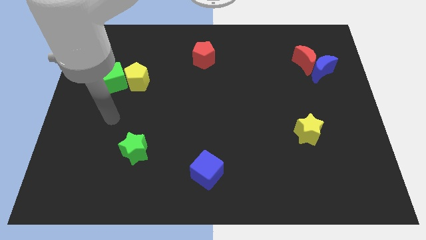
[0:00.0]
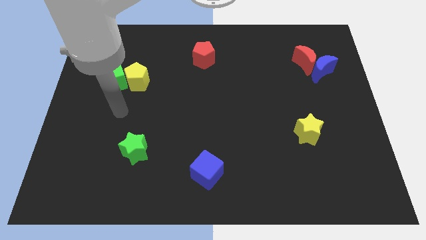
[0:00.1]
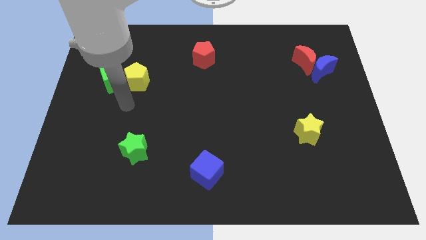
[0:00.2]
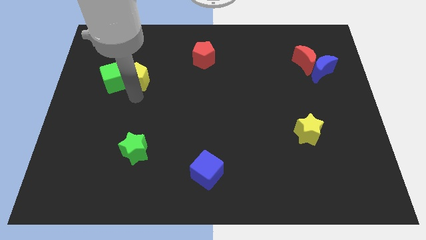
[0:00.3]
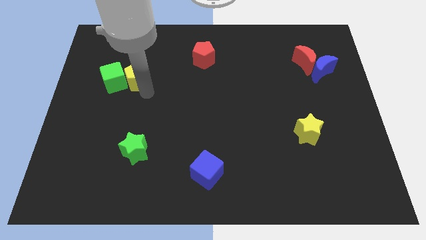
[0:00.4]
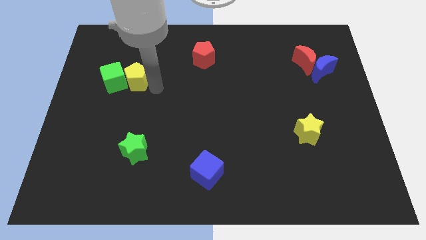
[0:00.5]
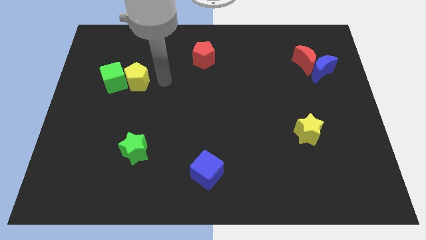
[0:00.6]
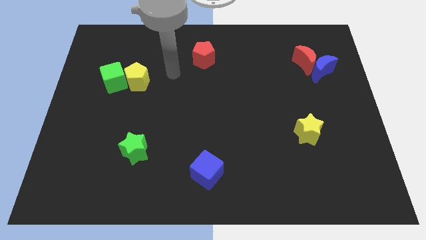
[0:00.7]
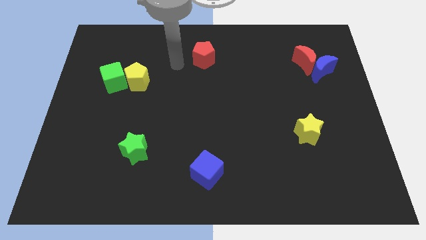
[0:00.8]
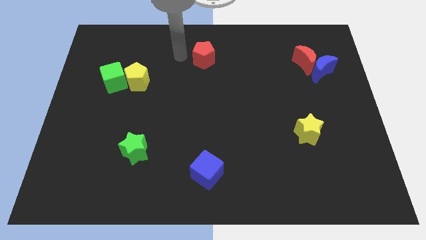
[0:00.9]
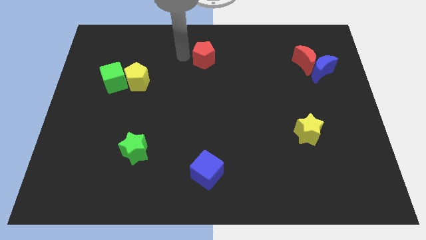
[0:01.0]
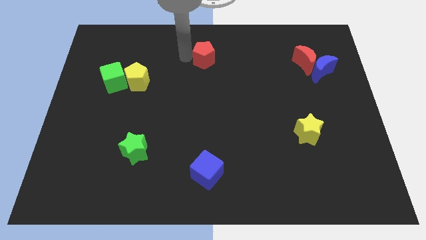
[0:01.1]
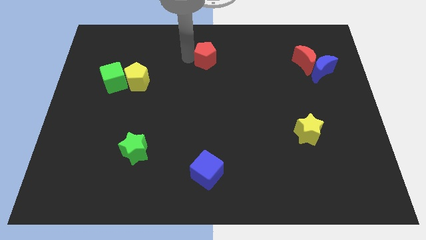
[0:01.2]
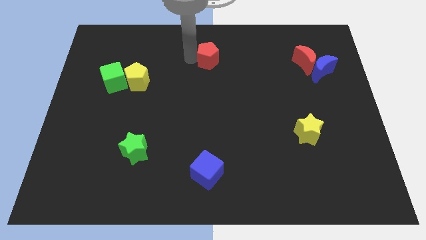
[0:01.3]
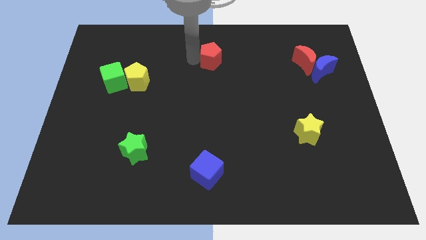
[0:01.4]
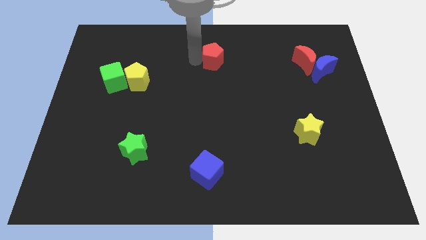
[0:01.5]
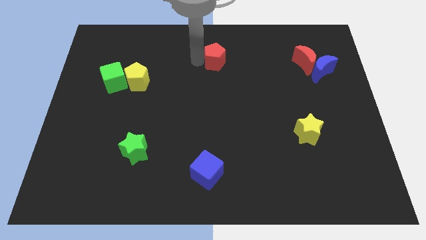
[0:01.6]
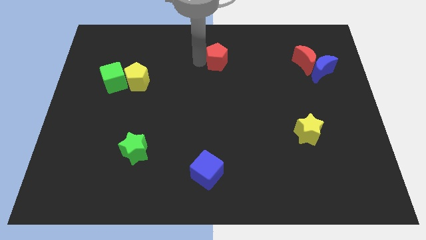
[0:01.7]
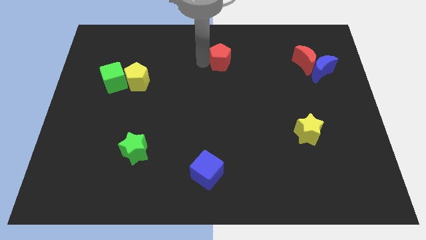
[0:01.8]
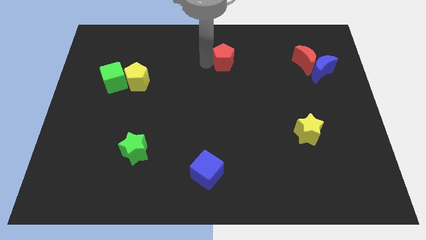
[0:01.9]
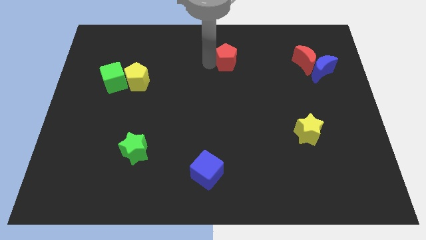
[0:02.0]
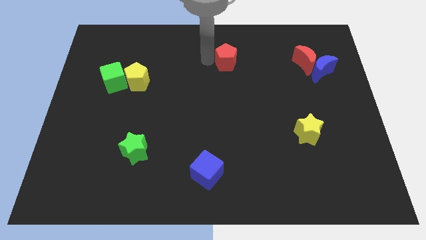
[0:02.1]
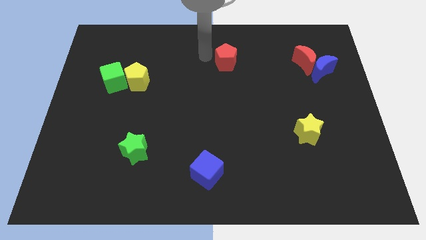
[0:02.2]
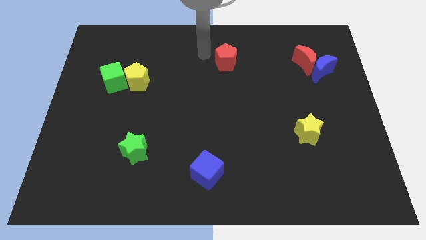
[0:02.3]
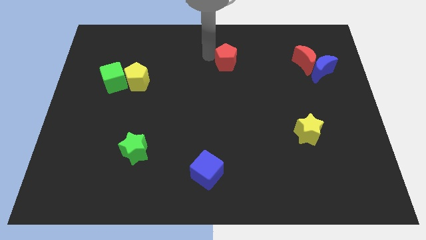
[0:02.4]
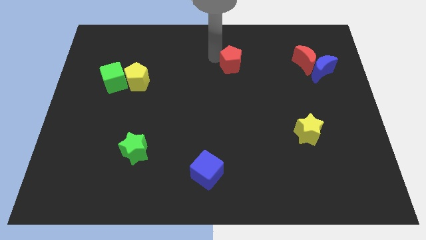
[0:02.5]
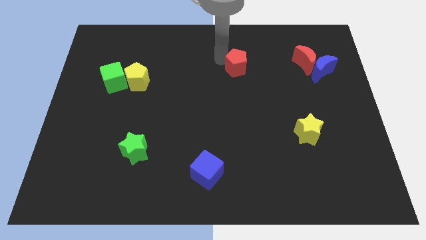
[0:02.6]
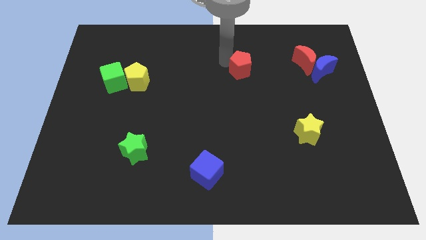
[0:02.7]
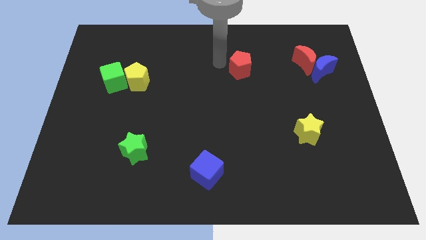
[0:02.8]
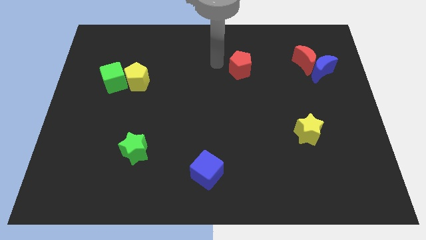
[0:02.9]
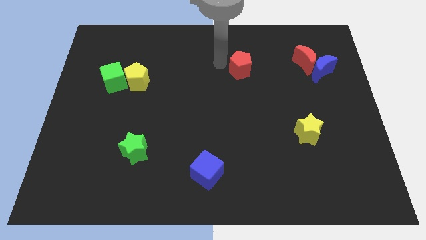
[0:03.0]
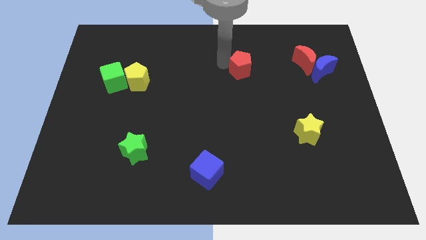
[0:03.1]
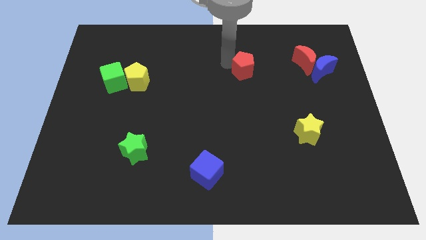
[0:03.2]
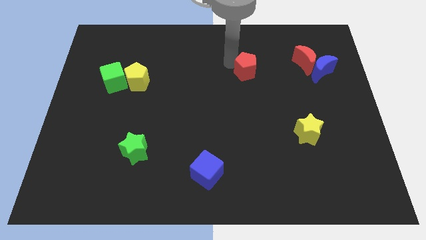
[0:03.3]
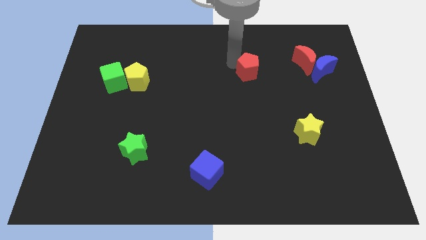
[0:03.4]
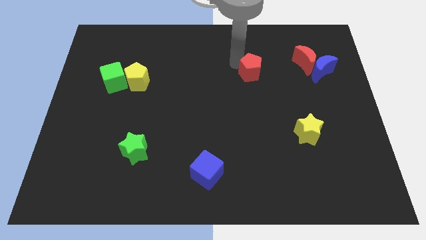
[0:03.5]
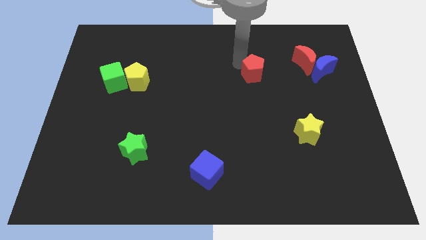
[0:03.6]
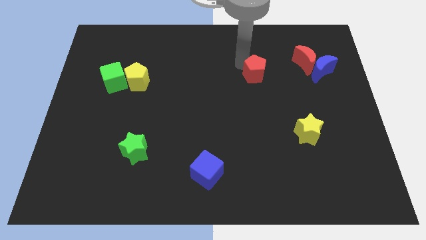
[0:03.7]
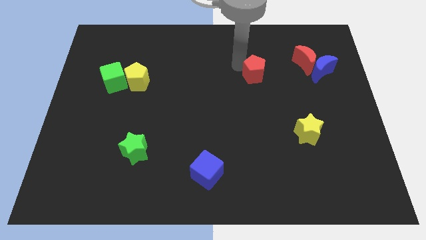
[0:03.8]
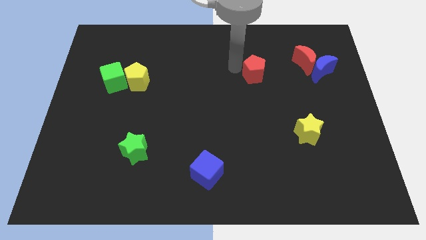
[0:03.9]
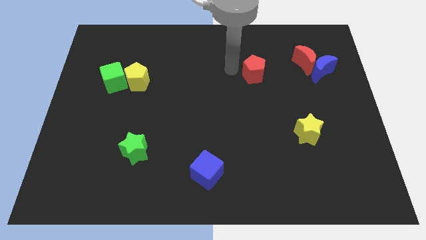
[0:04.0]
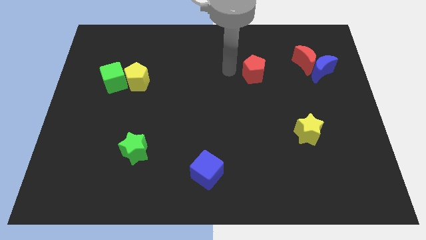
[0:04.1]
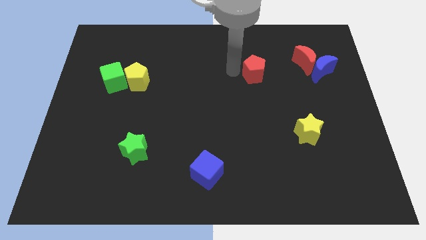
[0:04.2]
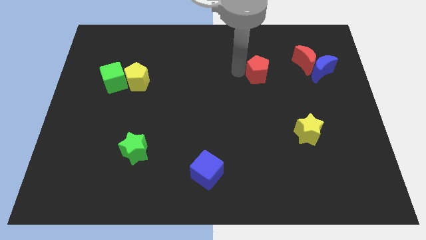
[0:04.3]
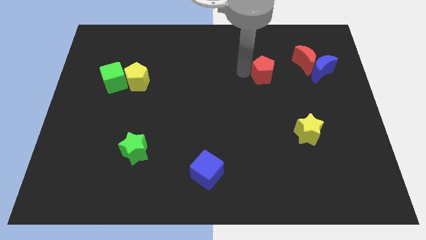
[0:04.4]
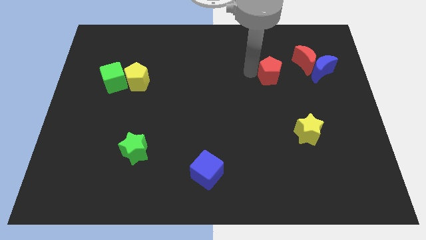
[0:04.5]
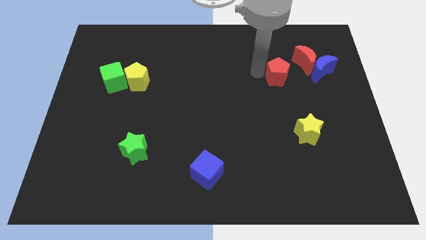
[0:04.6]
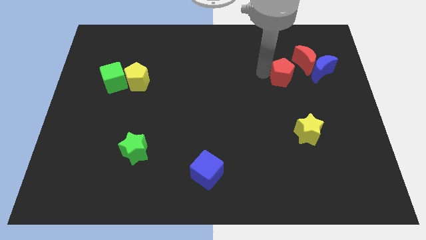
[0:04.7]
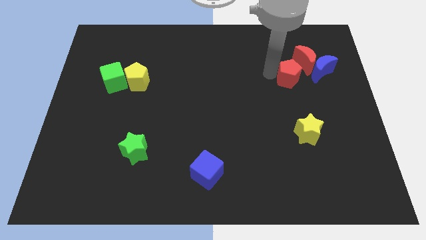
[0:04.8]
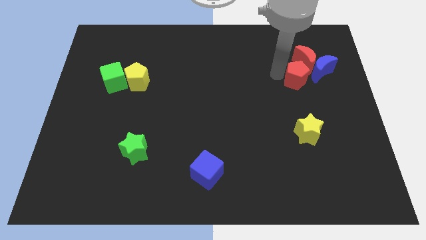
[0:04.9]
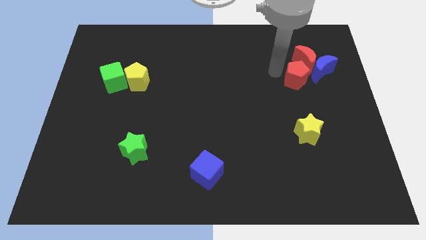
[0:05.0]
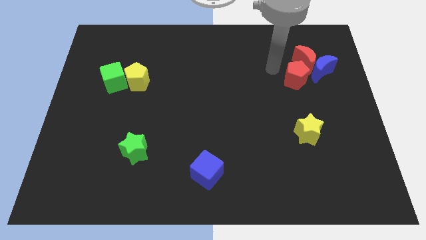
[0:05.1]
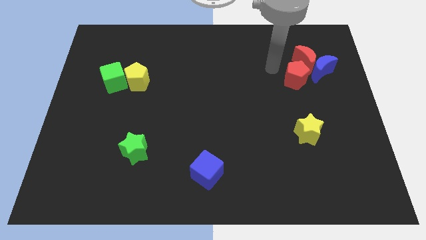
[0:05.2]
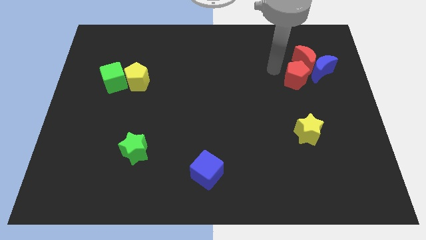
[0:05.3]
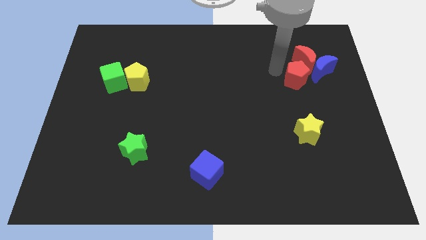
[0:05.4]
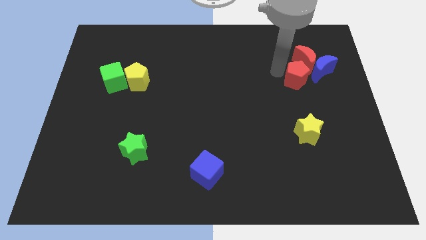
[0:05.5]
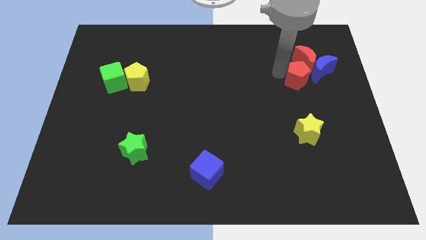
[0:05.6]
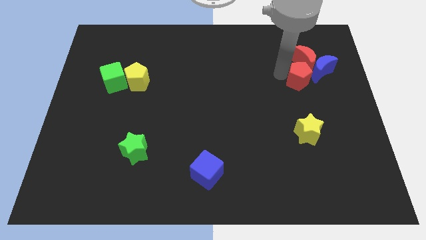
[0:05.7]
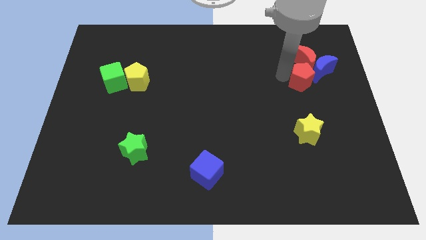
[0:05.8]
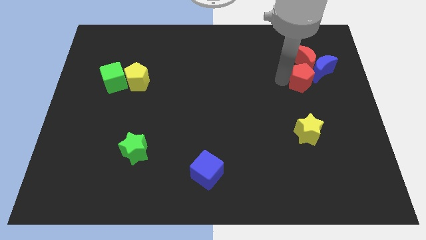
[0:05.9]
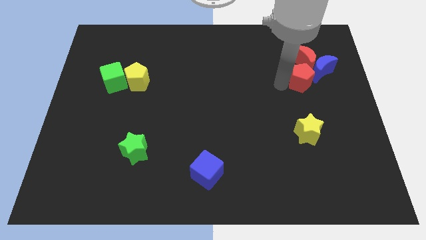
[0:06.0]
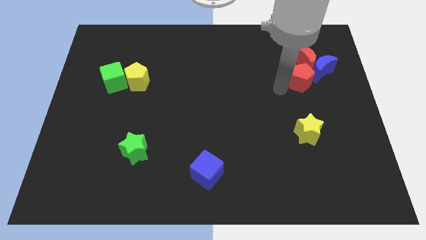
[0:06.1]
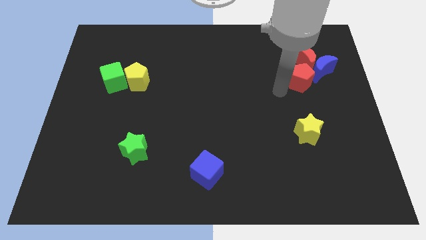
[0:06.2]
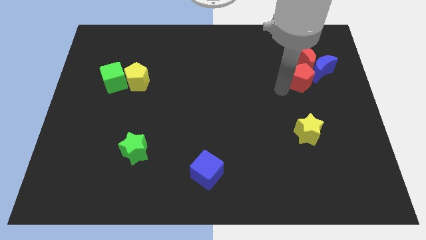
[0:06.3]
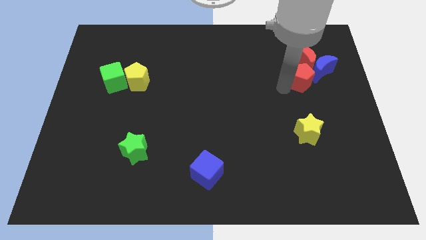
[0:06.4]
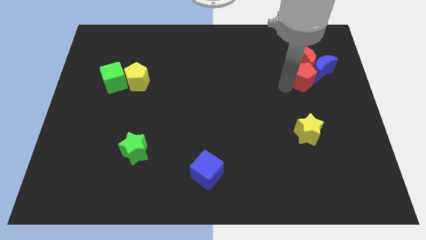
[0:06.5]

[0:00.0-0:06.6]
slide the red pentagon close to the blue moon

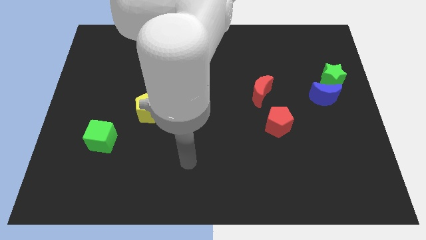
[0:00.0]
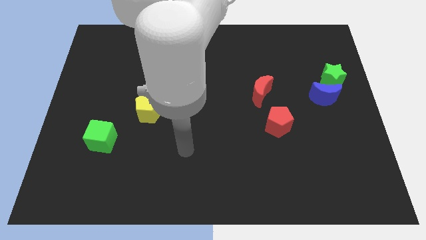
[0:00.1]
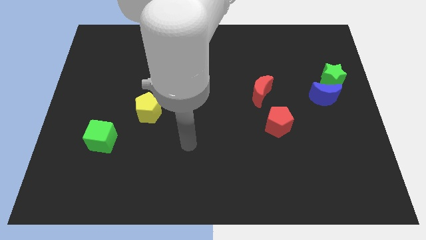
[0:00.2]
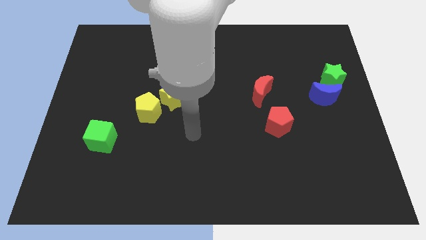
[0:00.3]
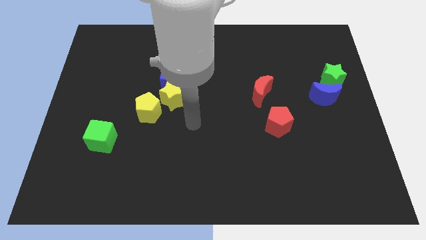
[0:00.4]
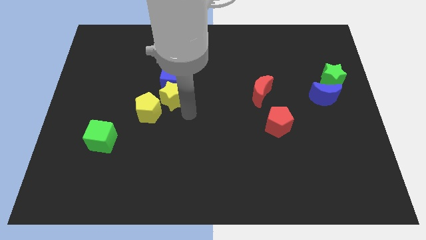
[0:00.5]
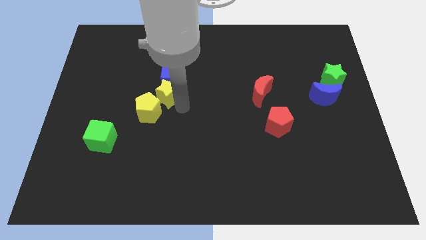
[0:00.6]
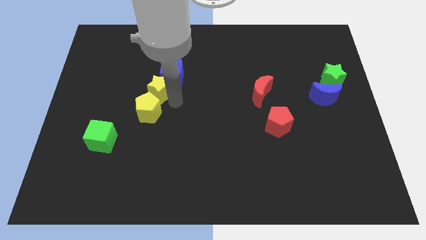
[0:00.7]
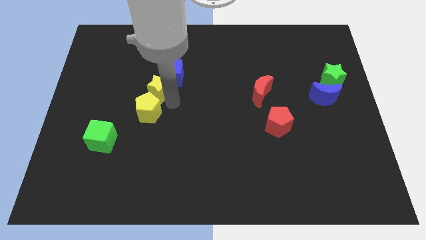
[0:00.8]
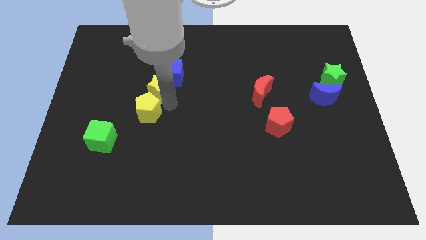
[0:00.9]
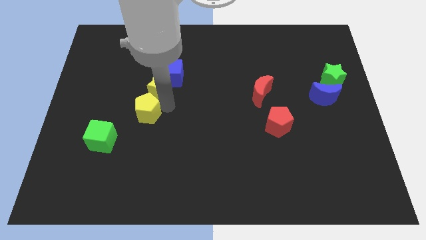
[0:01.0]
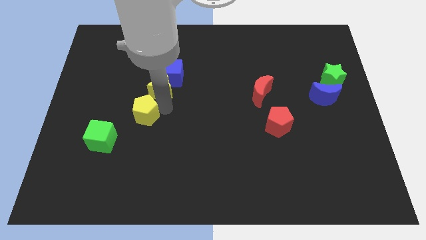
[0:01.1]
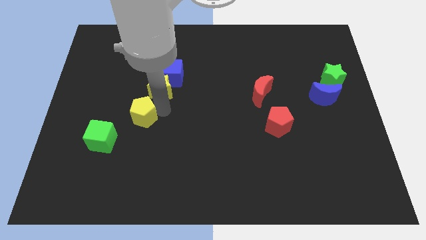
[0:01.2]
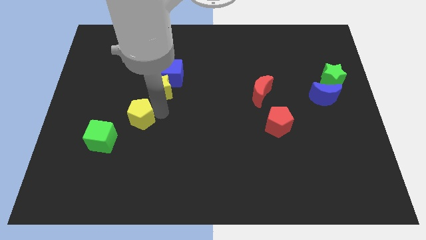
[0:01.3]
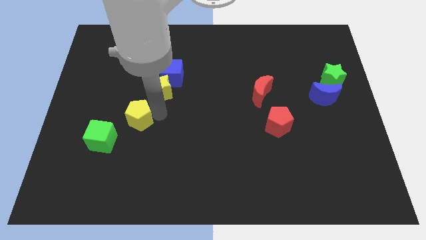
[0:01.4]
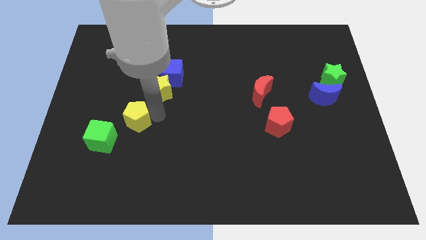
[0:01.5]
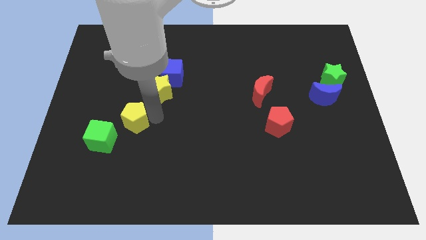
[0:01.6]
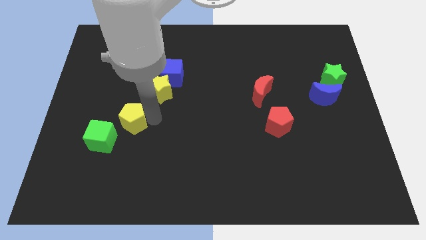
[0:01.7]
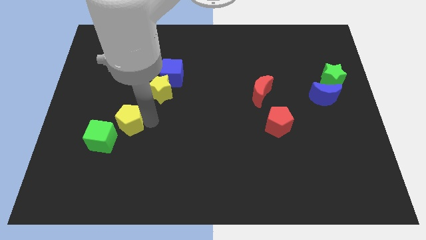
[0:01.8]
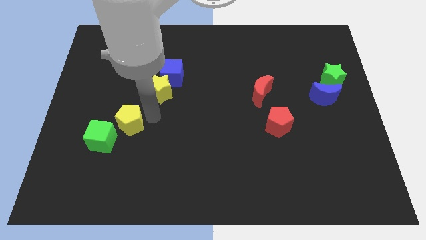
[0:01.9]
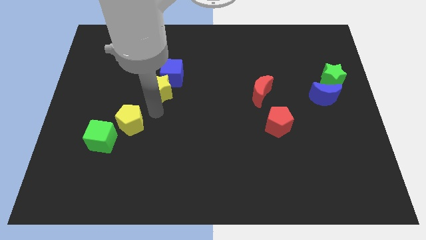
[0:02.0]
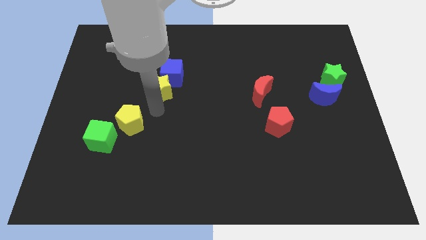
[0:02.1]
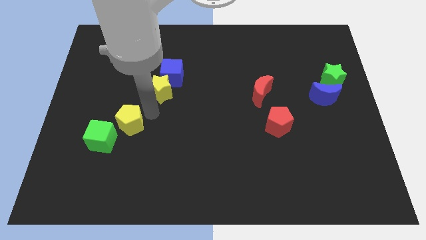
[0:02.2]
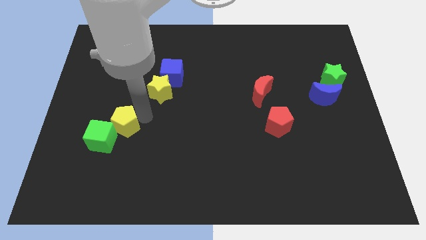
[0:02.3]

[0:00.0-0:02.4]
push the yellow pentagon next to the green cube
